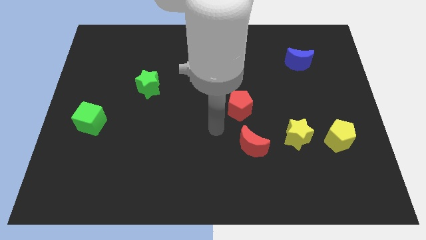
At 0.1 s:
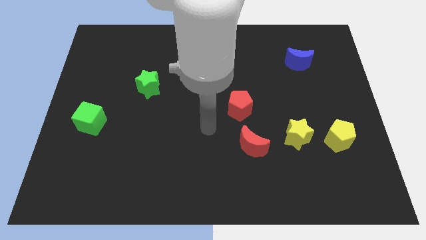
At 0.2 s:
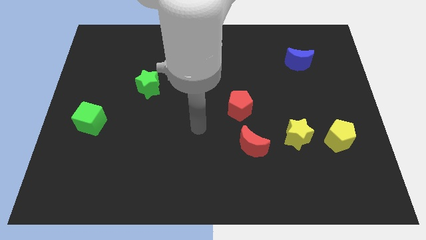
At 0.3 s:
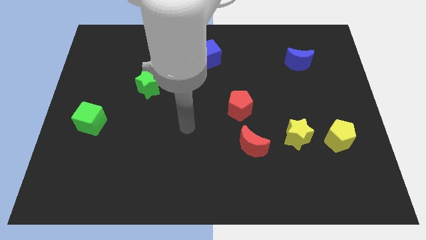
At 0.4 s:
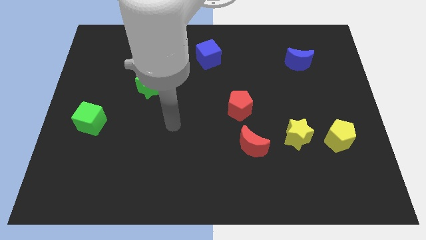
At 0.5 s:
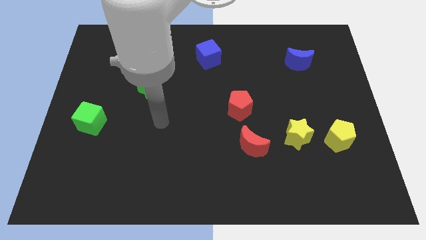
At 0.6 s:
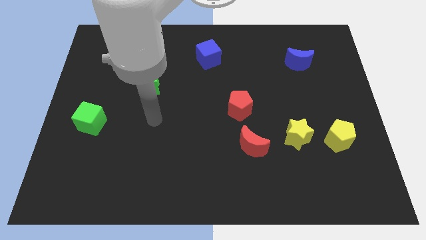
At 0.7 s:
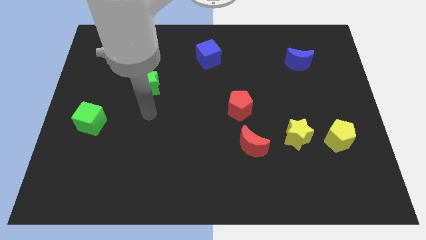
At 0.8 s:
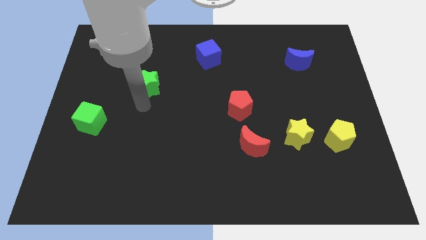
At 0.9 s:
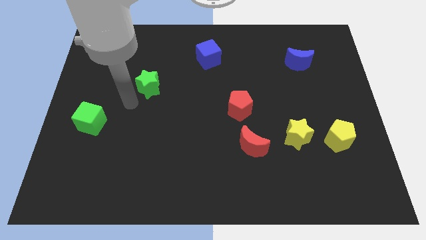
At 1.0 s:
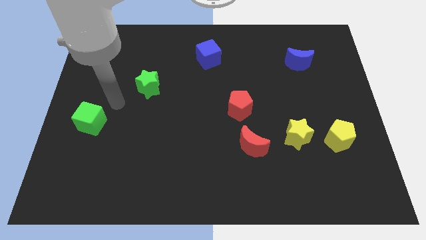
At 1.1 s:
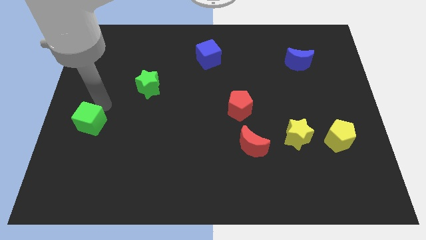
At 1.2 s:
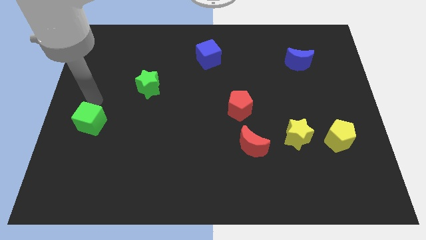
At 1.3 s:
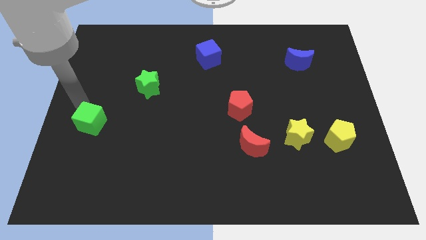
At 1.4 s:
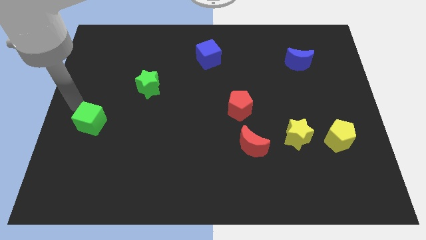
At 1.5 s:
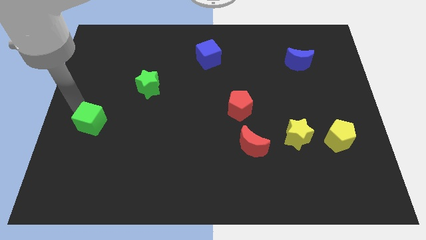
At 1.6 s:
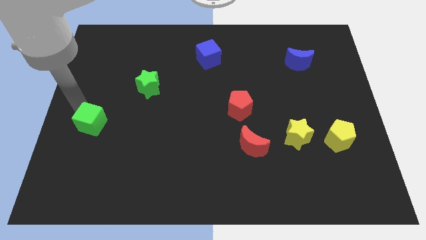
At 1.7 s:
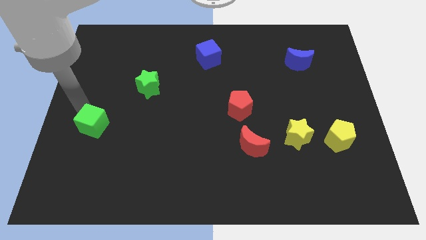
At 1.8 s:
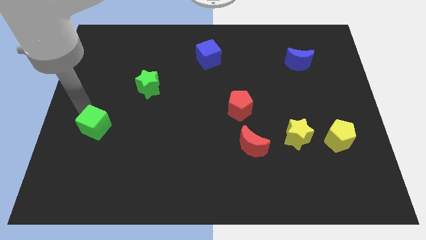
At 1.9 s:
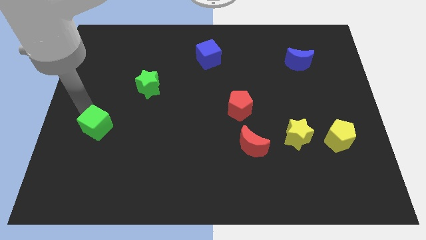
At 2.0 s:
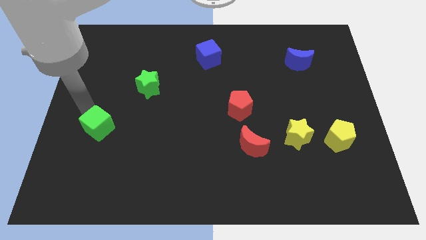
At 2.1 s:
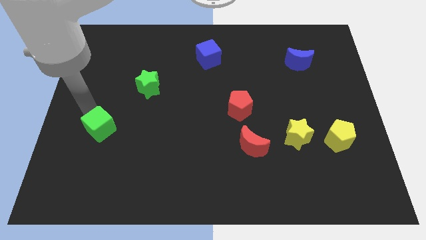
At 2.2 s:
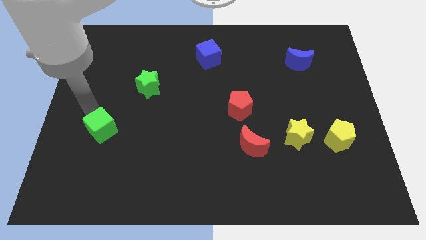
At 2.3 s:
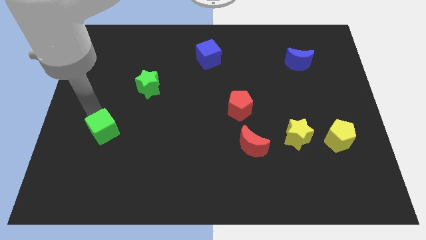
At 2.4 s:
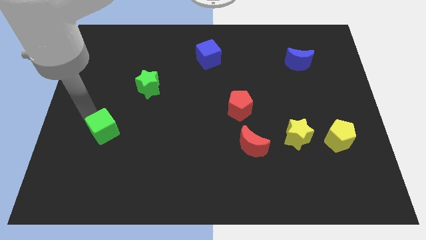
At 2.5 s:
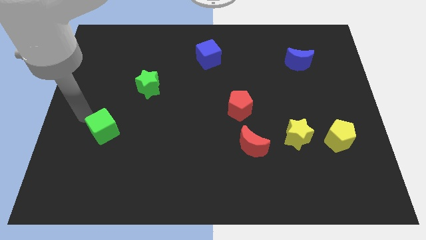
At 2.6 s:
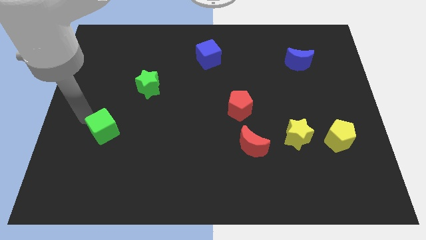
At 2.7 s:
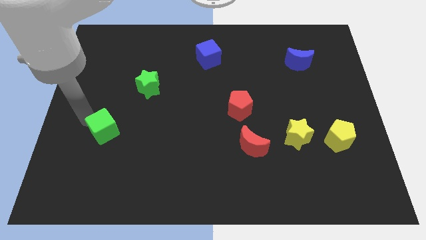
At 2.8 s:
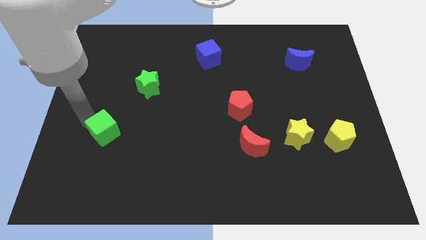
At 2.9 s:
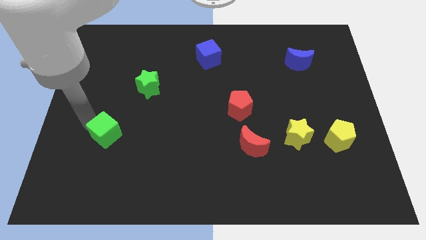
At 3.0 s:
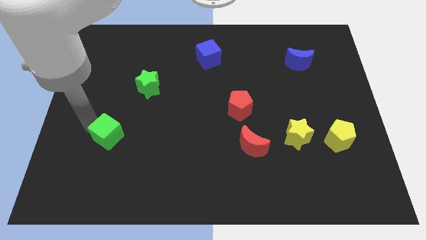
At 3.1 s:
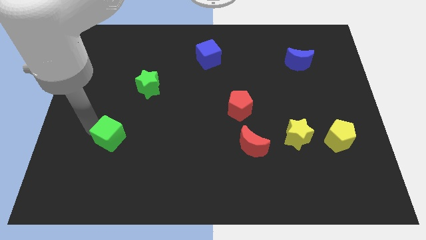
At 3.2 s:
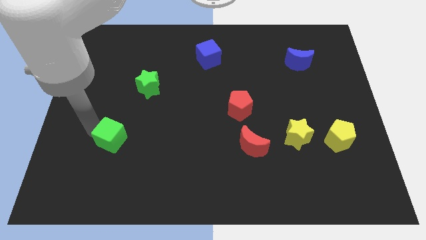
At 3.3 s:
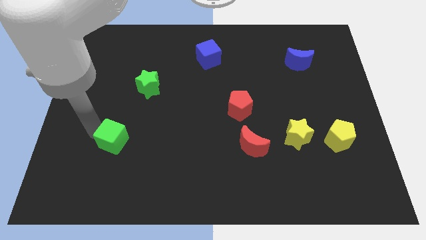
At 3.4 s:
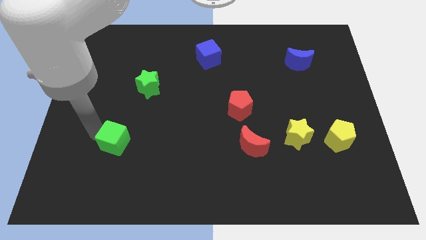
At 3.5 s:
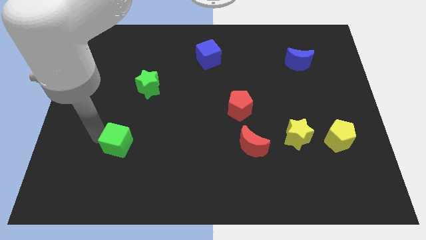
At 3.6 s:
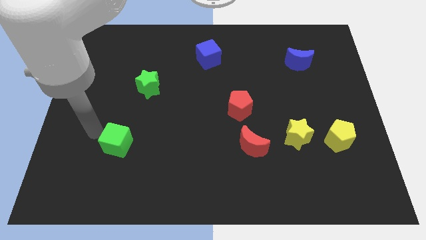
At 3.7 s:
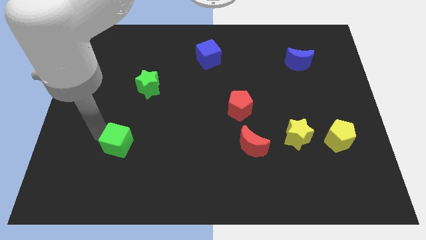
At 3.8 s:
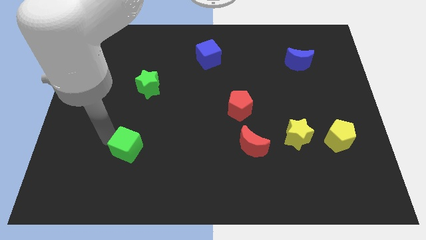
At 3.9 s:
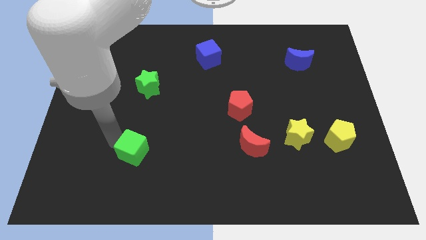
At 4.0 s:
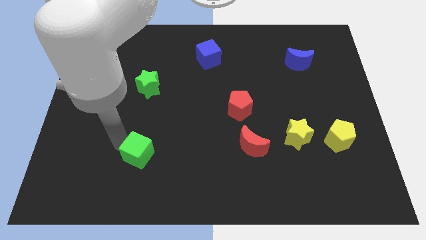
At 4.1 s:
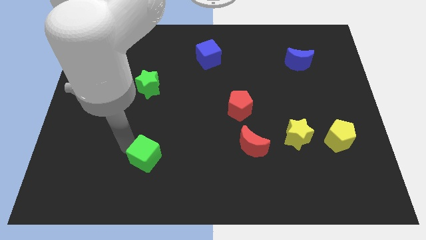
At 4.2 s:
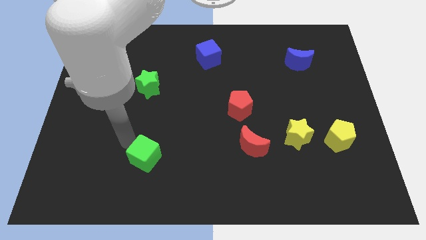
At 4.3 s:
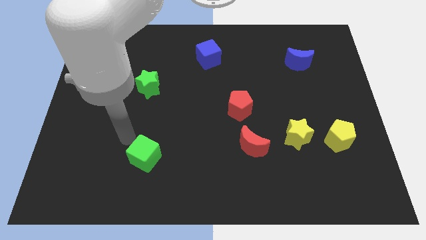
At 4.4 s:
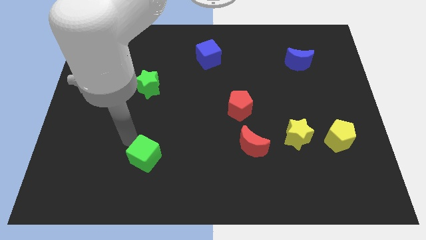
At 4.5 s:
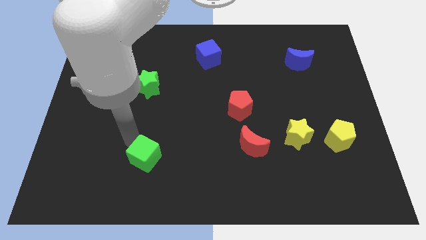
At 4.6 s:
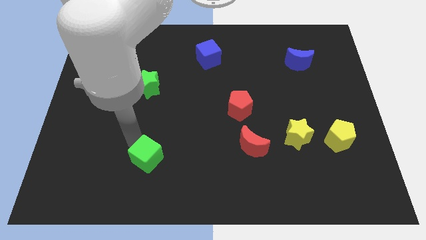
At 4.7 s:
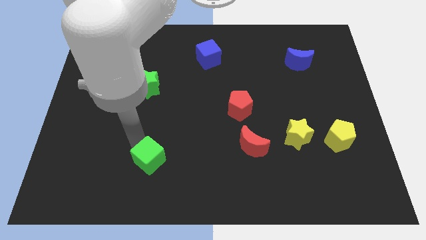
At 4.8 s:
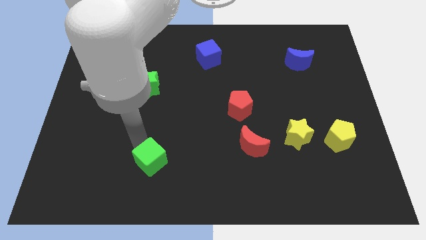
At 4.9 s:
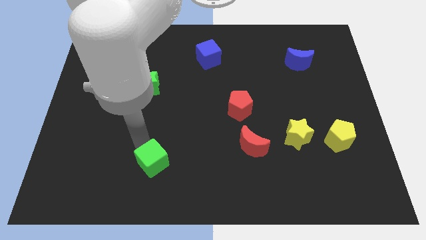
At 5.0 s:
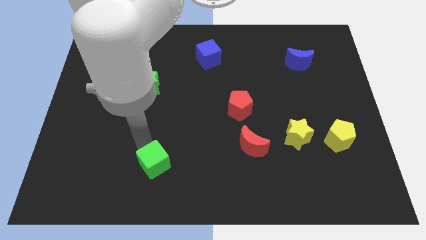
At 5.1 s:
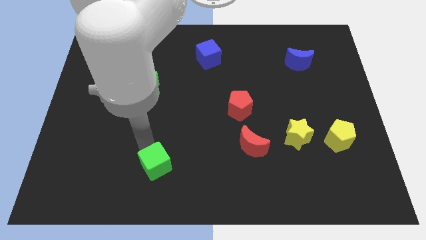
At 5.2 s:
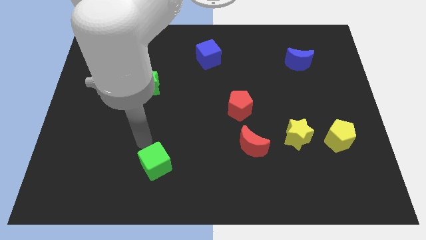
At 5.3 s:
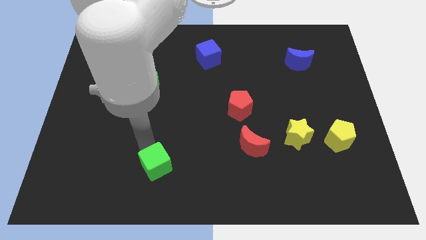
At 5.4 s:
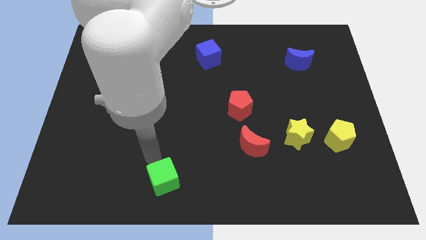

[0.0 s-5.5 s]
put the green cube to the bottom side

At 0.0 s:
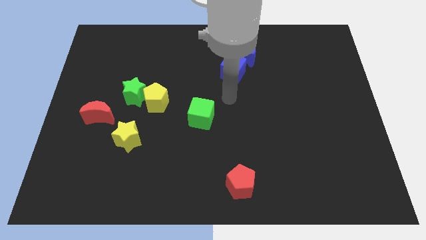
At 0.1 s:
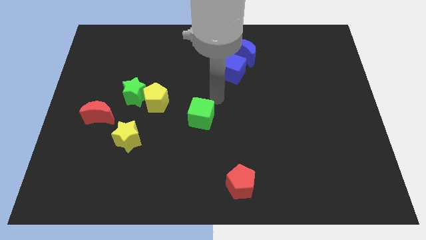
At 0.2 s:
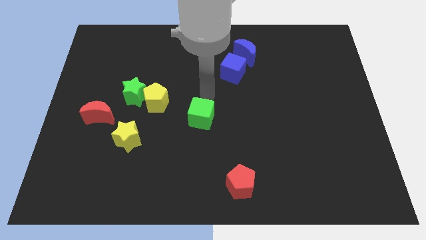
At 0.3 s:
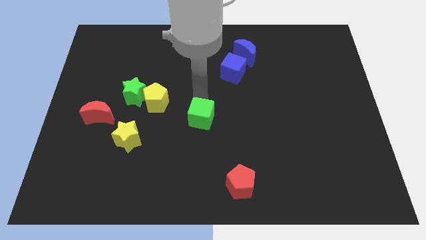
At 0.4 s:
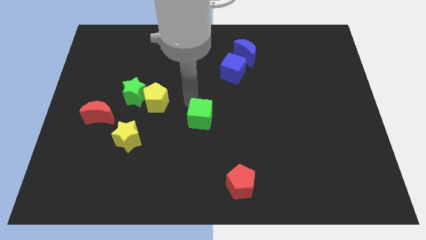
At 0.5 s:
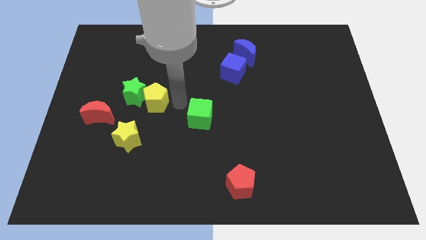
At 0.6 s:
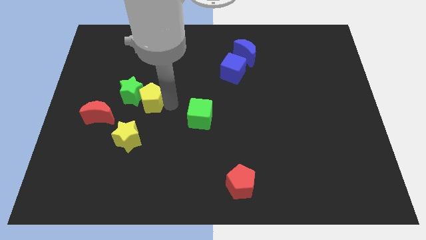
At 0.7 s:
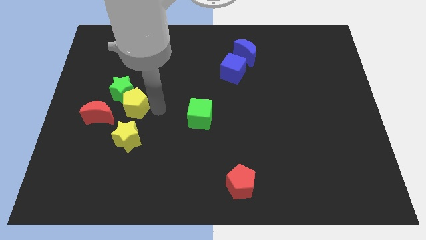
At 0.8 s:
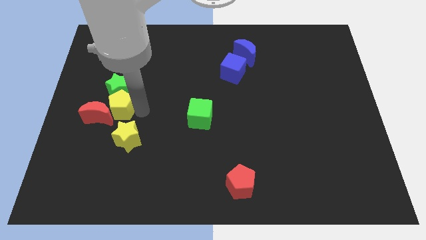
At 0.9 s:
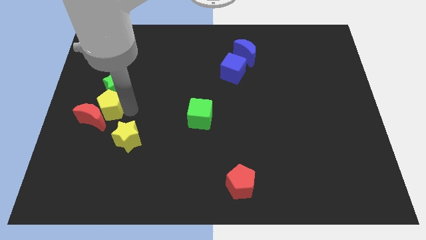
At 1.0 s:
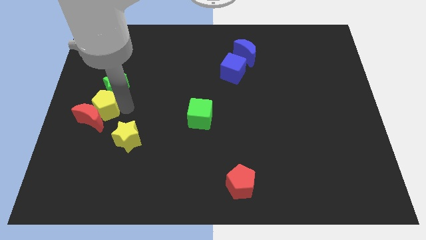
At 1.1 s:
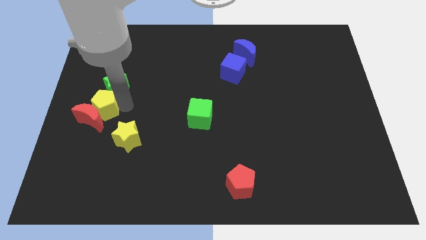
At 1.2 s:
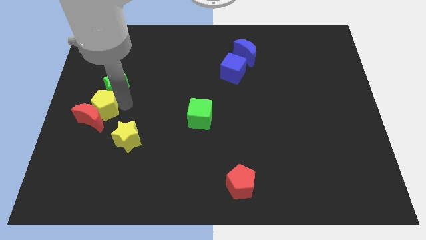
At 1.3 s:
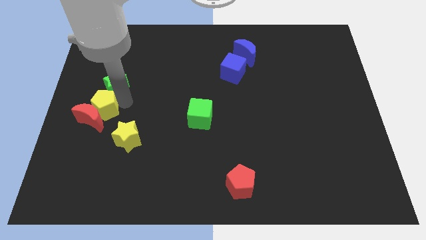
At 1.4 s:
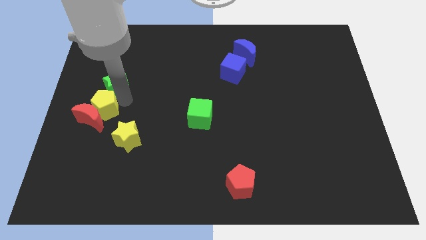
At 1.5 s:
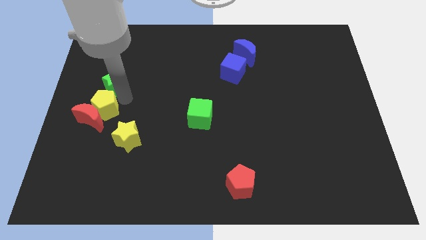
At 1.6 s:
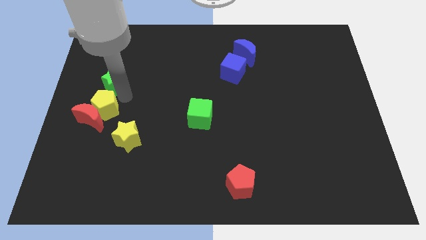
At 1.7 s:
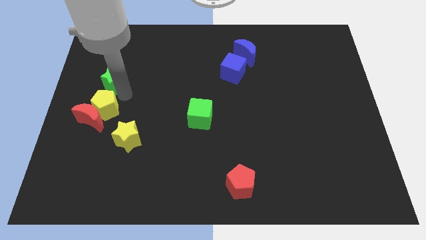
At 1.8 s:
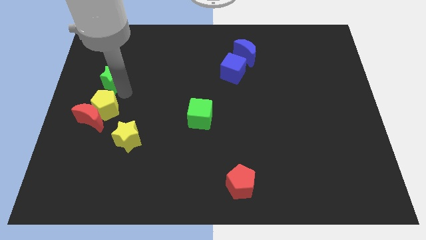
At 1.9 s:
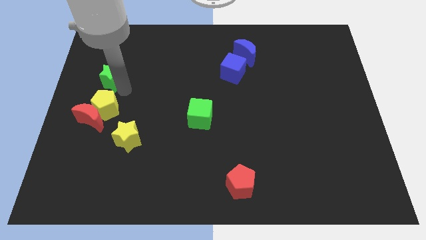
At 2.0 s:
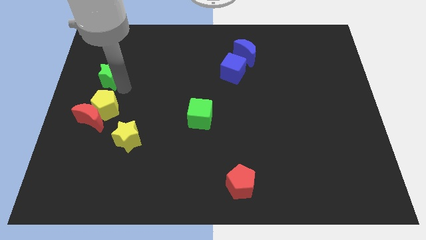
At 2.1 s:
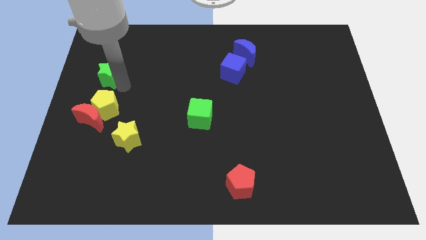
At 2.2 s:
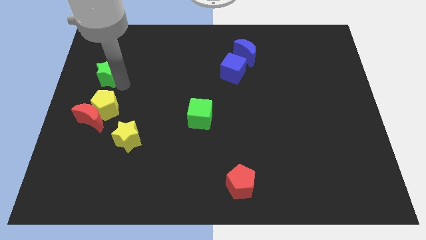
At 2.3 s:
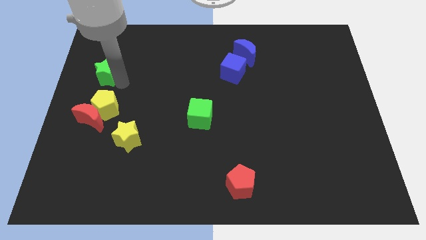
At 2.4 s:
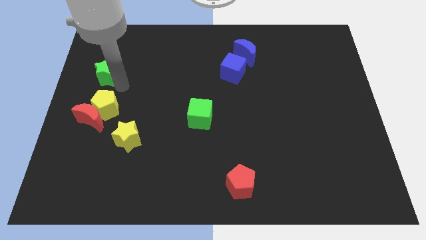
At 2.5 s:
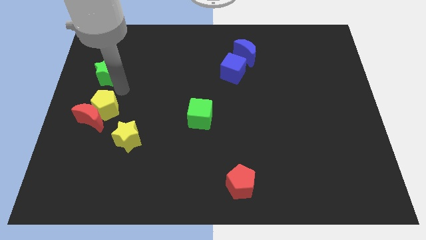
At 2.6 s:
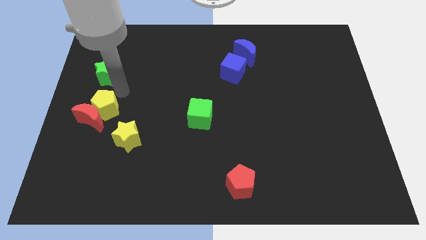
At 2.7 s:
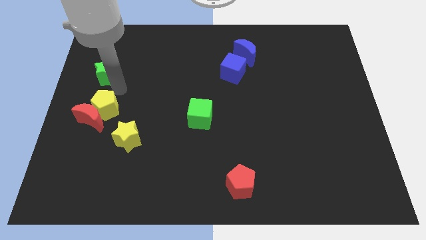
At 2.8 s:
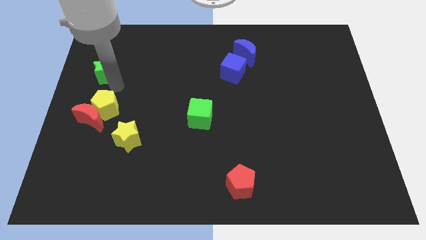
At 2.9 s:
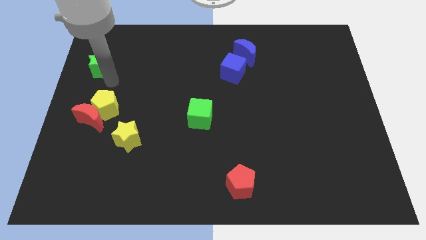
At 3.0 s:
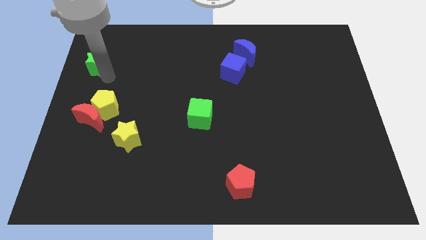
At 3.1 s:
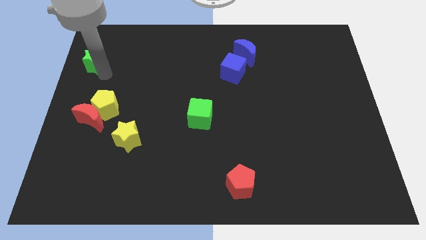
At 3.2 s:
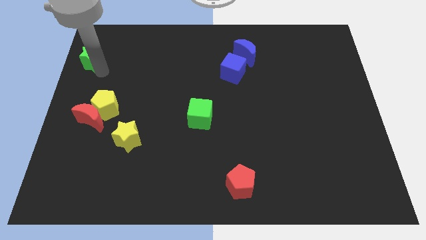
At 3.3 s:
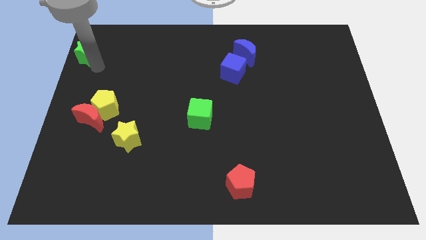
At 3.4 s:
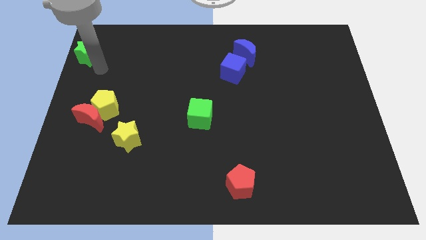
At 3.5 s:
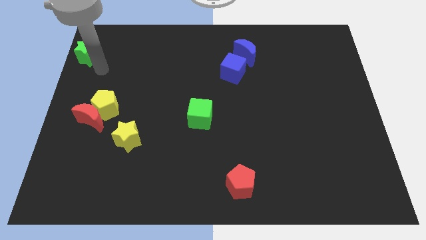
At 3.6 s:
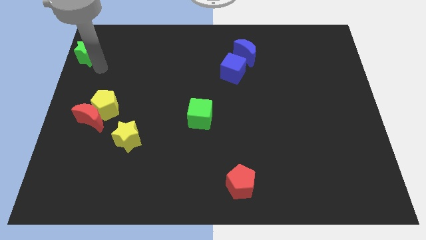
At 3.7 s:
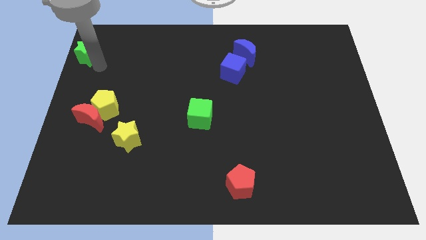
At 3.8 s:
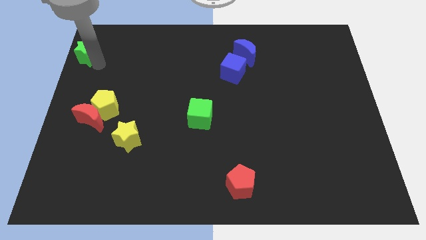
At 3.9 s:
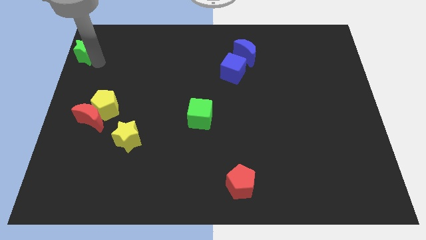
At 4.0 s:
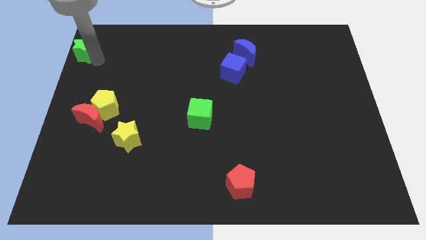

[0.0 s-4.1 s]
move the green star to the top left
